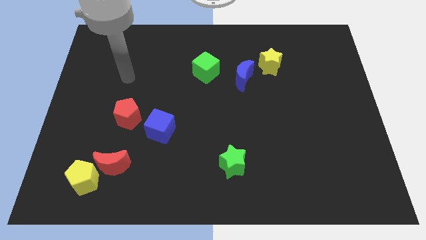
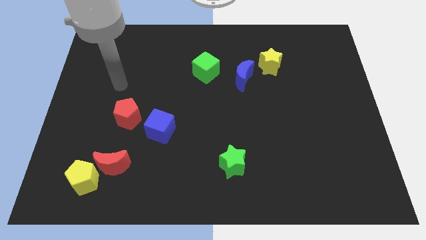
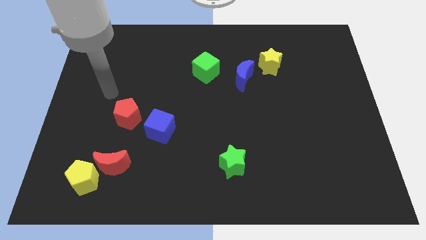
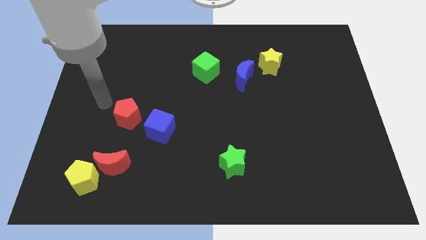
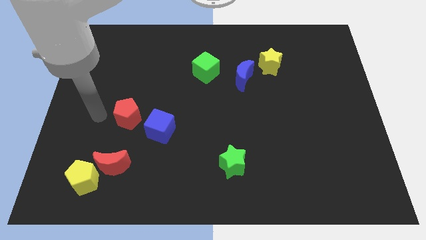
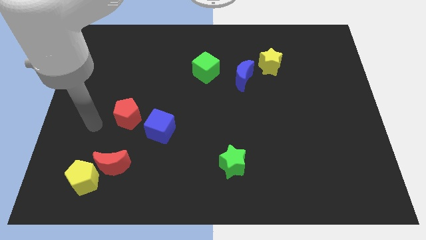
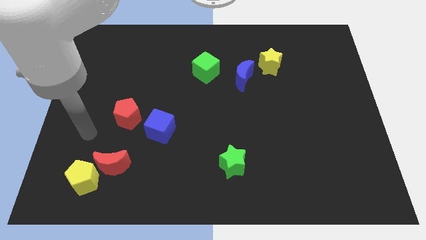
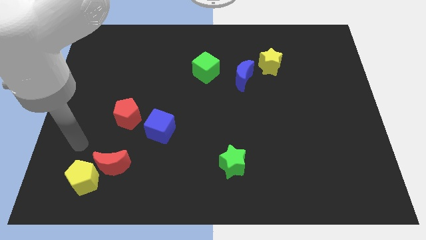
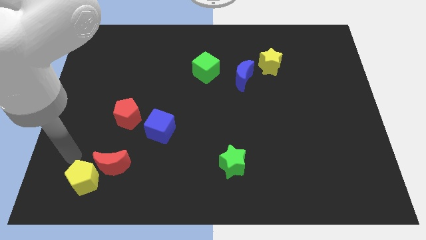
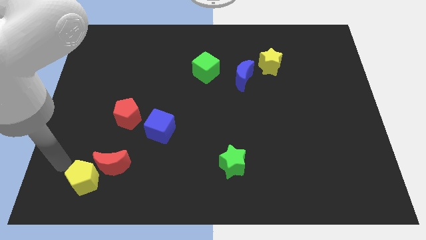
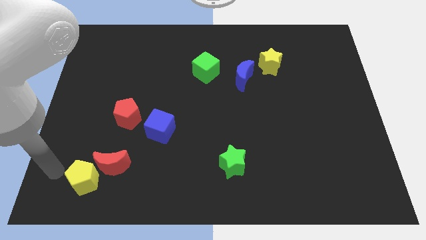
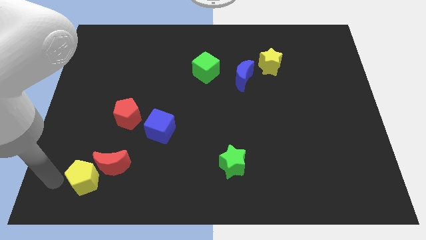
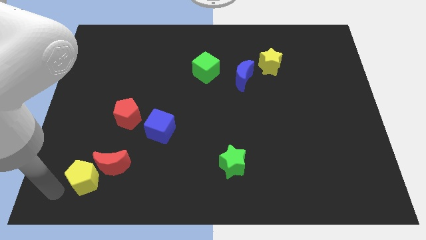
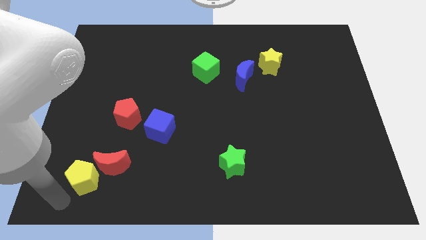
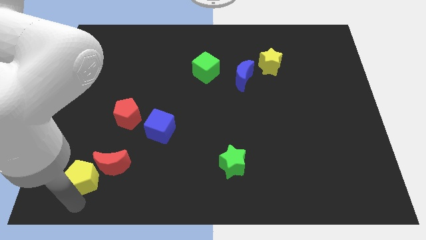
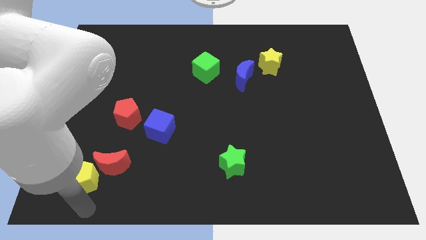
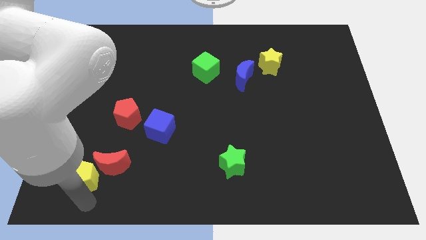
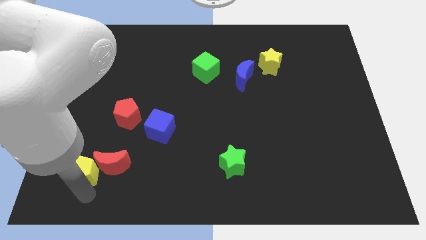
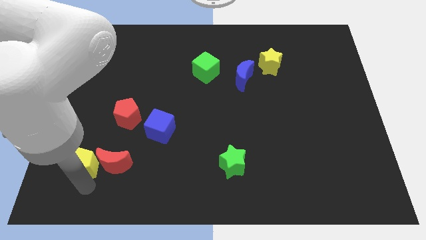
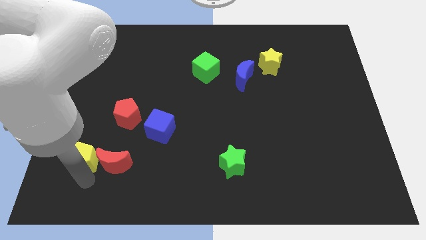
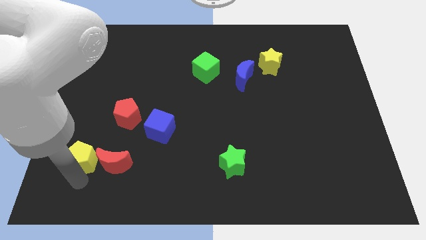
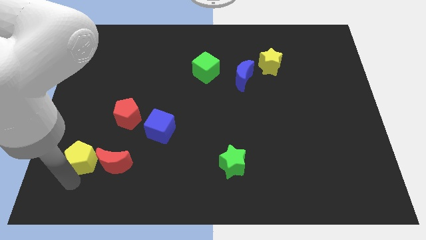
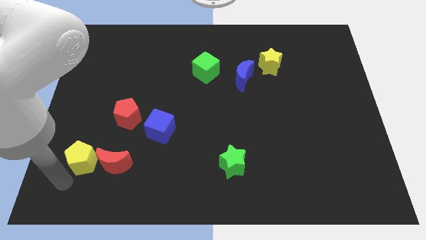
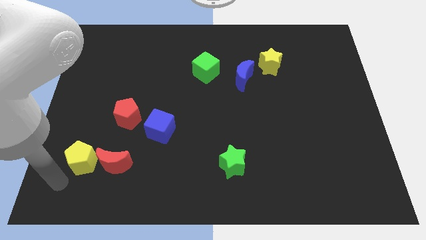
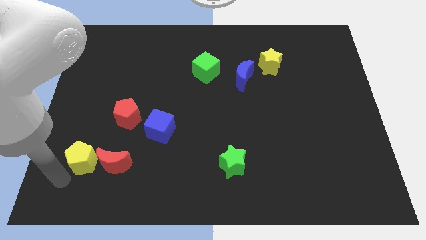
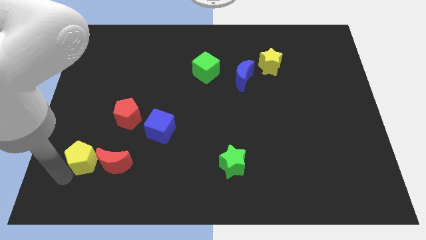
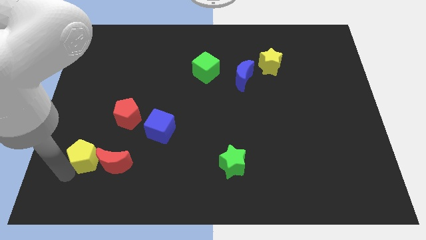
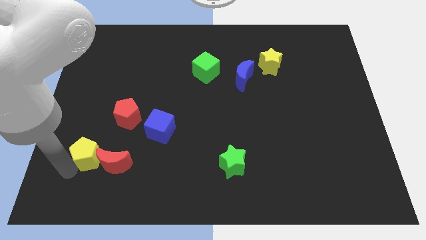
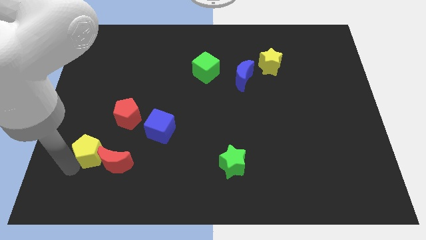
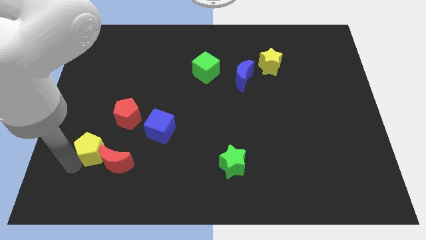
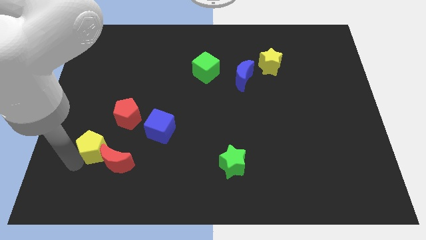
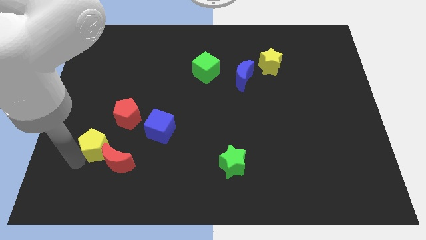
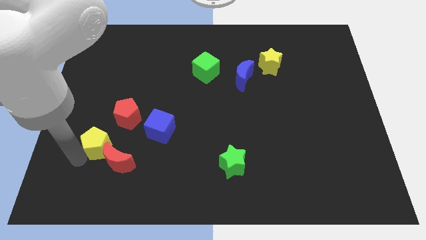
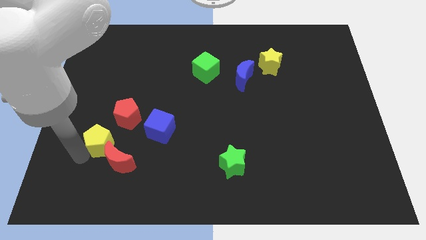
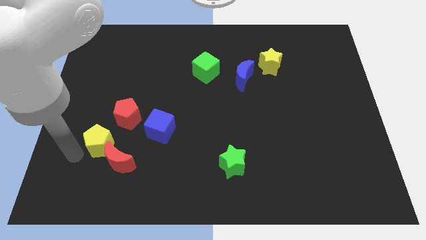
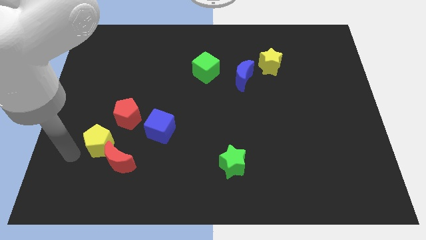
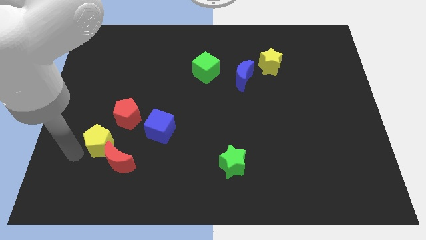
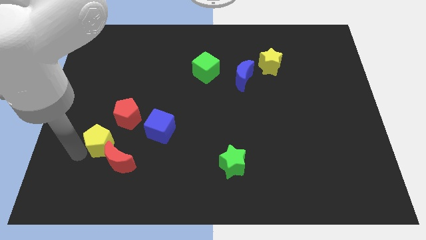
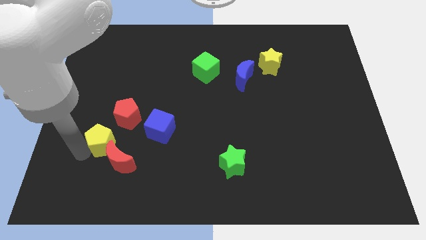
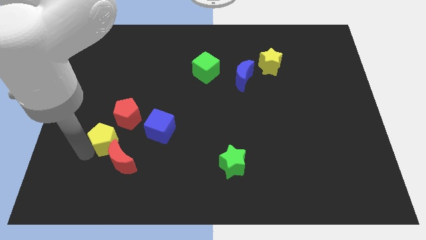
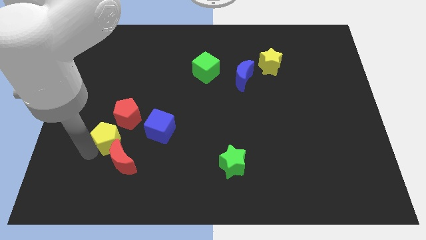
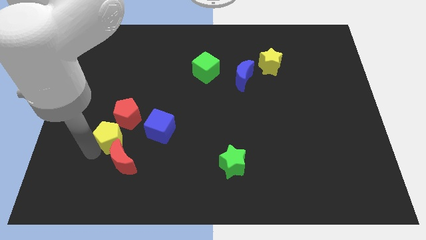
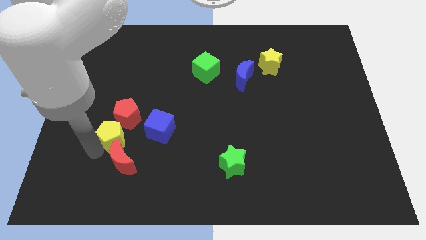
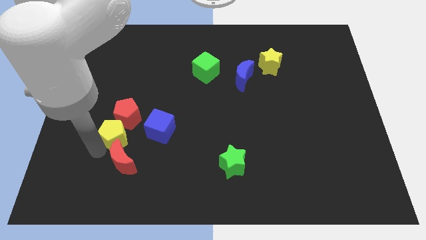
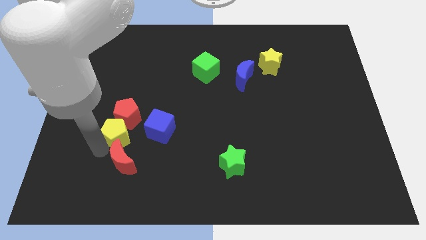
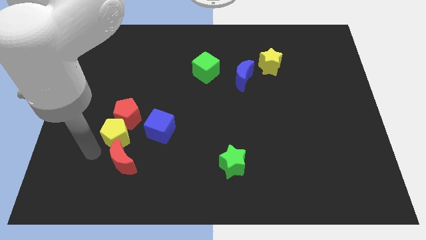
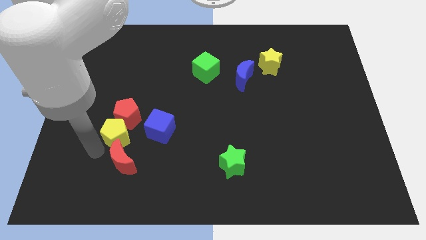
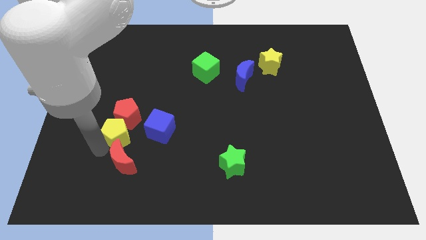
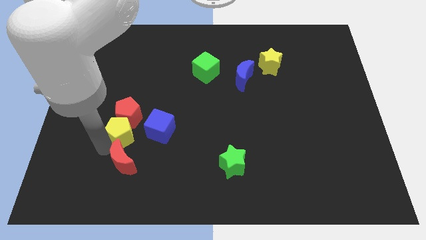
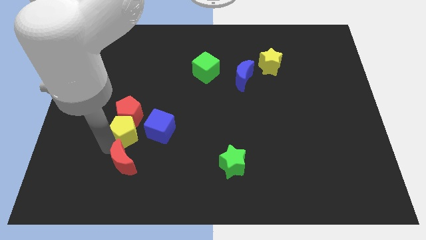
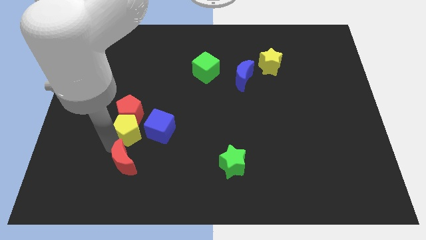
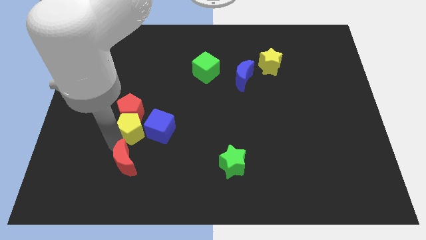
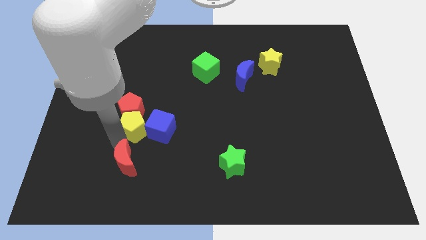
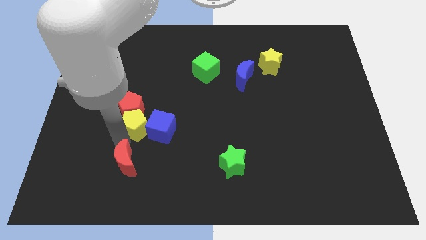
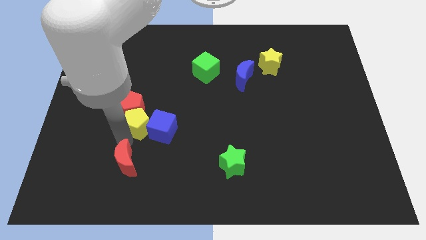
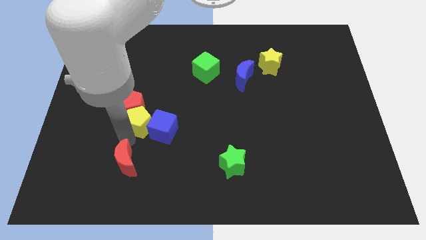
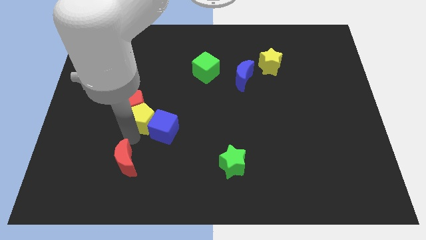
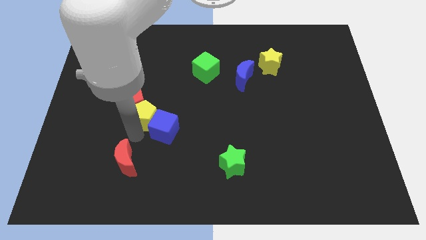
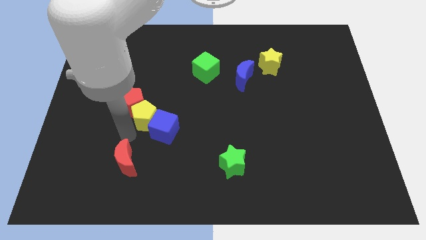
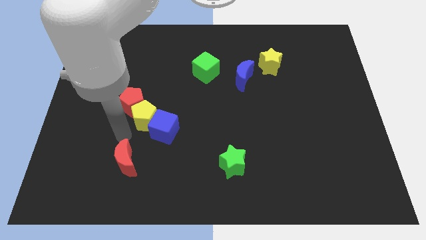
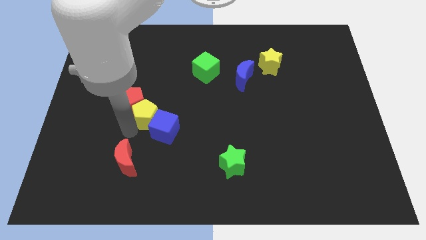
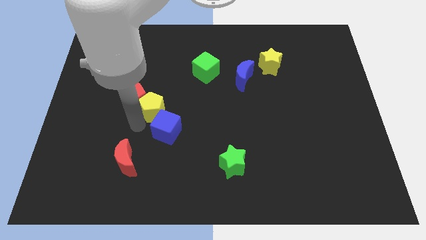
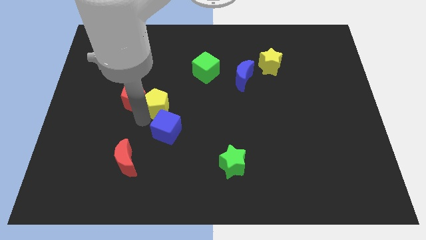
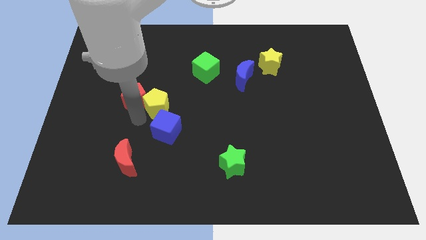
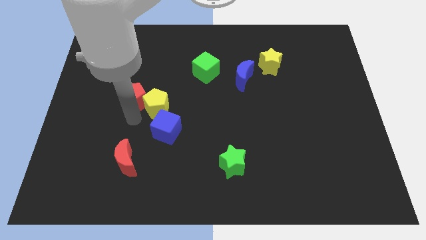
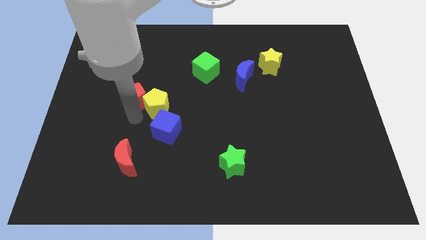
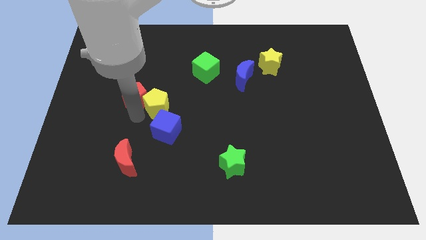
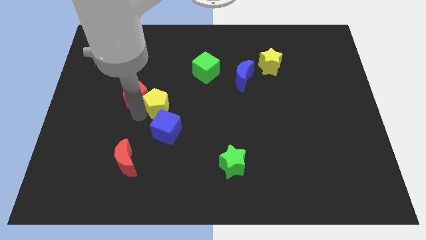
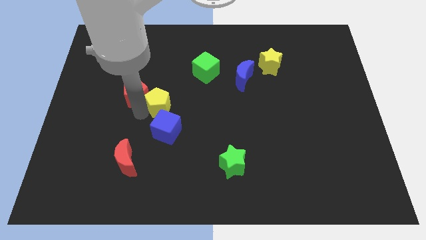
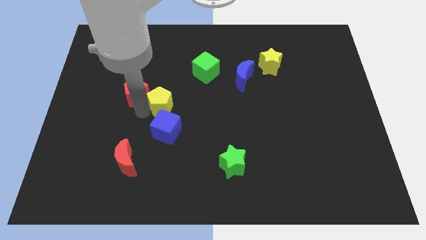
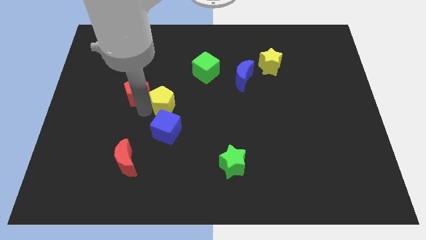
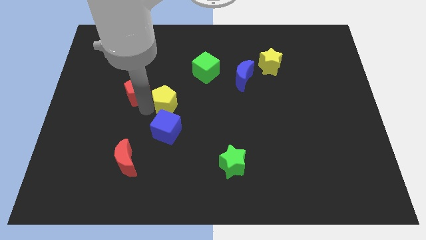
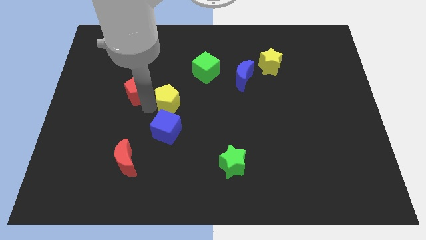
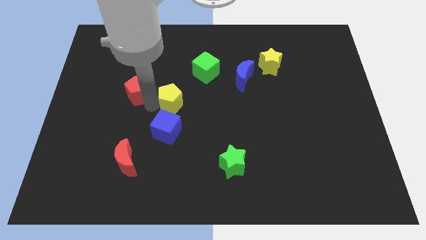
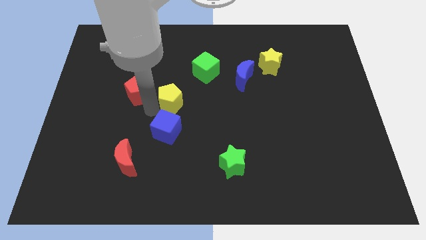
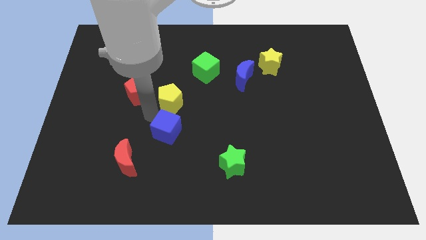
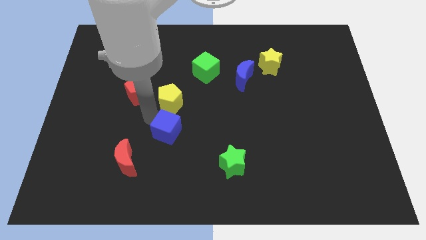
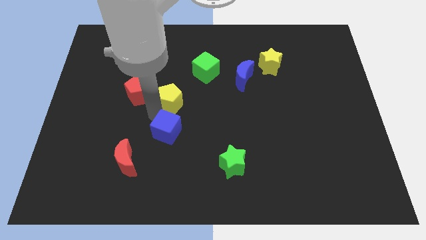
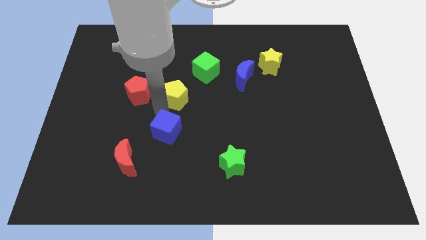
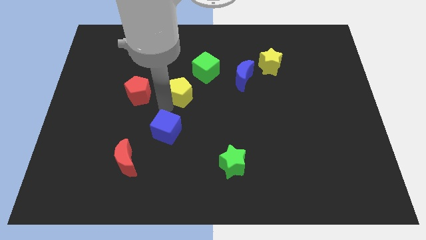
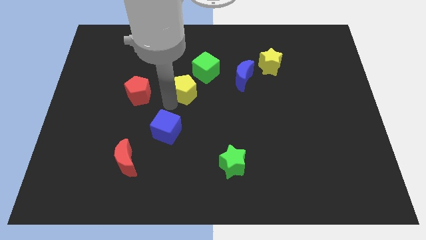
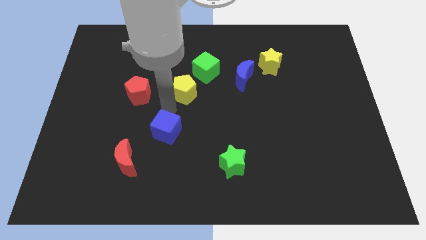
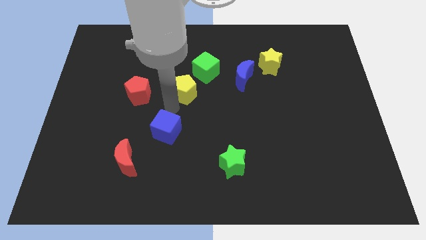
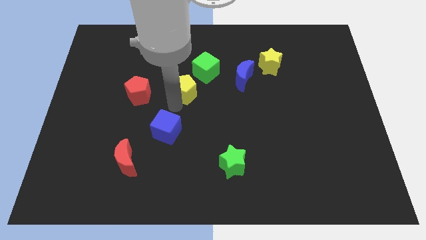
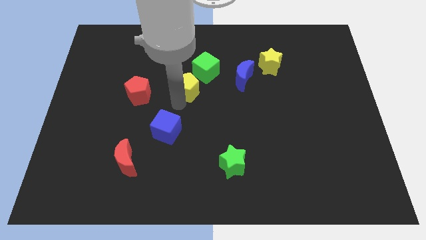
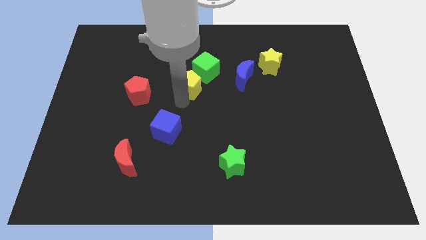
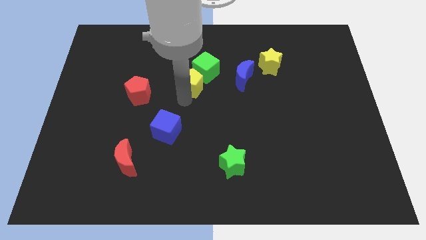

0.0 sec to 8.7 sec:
slide the yellow pentagon towards the green cube
